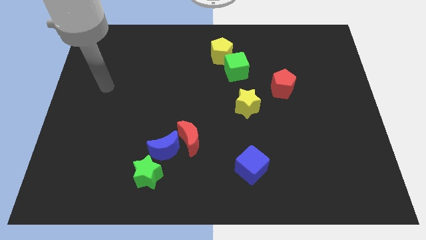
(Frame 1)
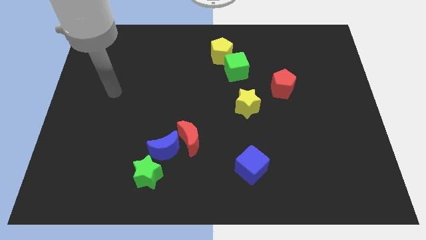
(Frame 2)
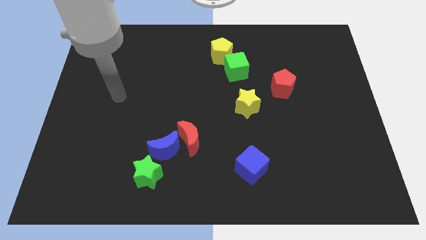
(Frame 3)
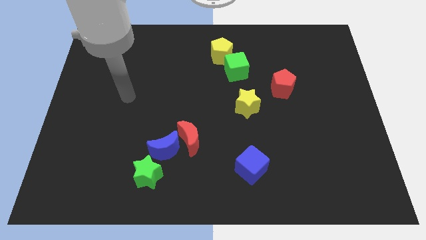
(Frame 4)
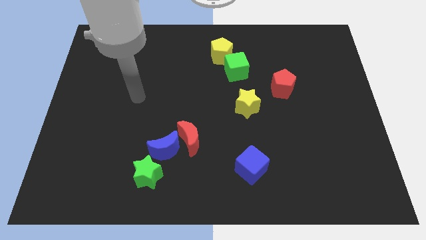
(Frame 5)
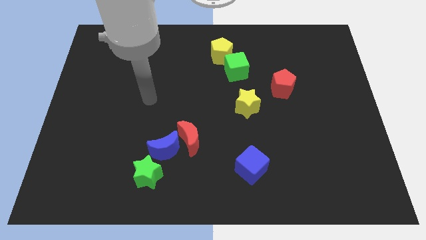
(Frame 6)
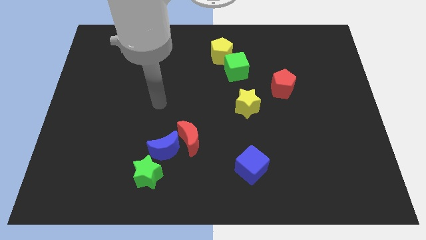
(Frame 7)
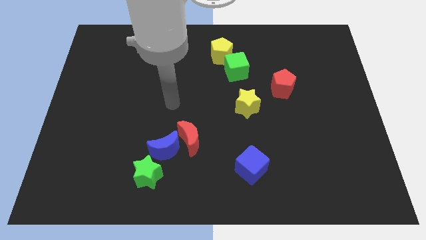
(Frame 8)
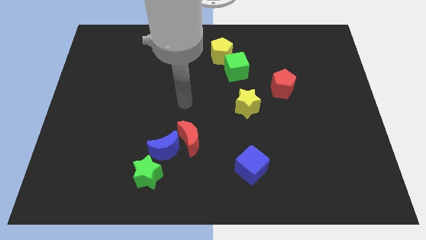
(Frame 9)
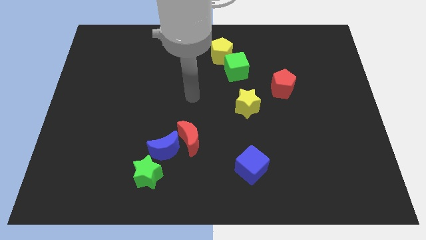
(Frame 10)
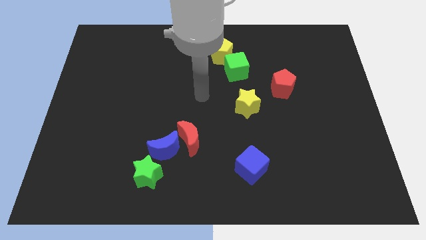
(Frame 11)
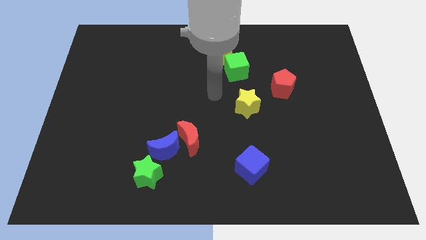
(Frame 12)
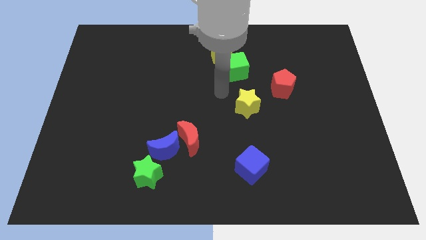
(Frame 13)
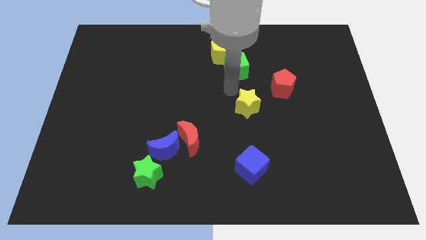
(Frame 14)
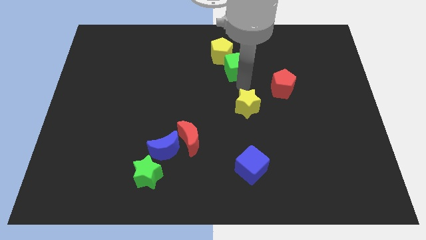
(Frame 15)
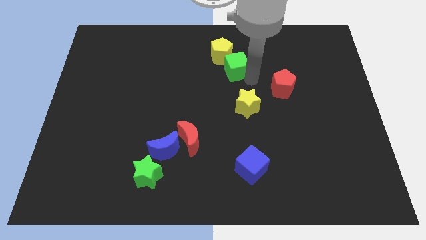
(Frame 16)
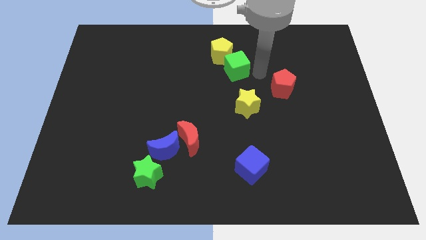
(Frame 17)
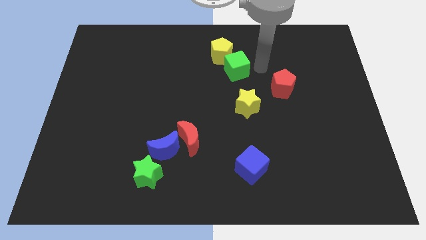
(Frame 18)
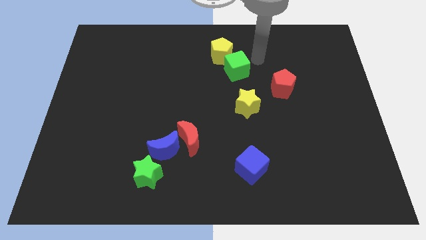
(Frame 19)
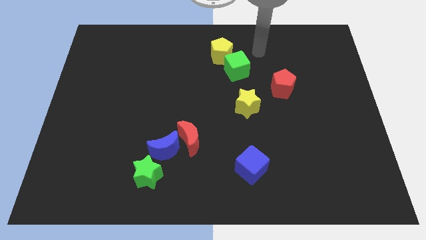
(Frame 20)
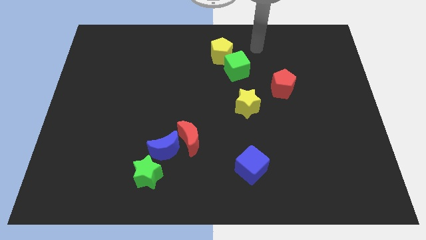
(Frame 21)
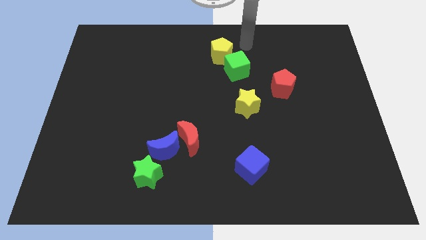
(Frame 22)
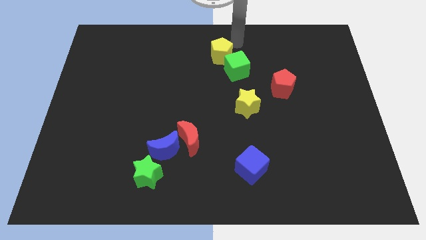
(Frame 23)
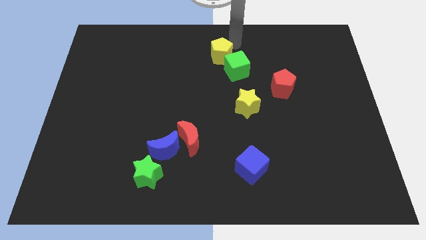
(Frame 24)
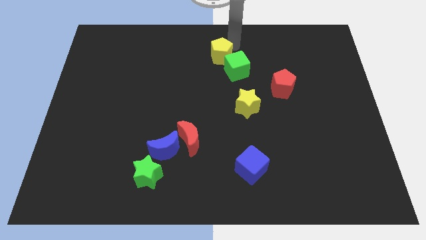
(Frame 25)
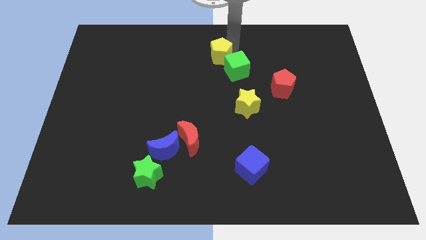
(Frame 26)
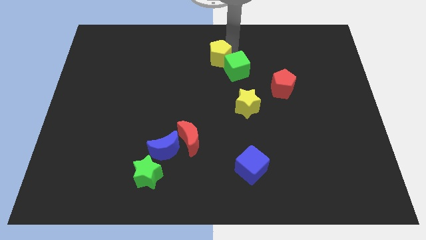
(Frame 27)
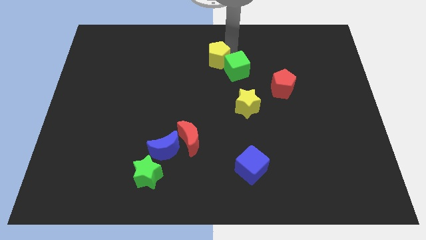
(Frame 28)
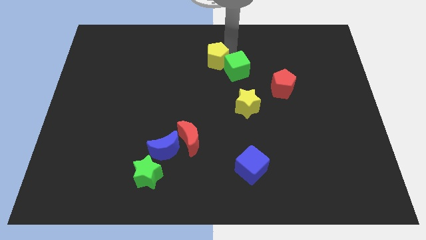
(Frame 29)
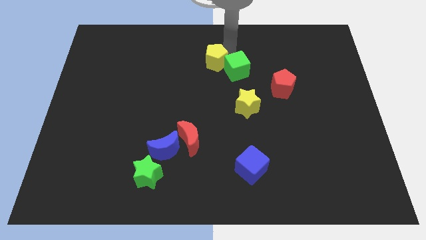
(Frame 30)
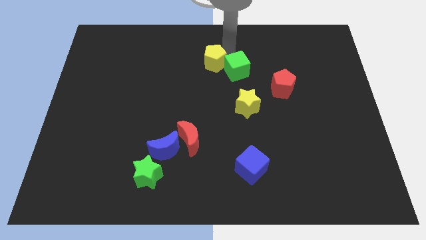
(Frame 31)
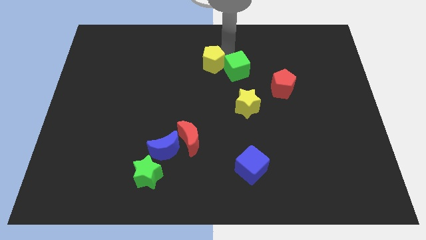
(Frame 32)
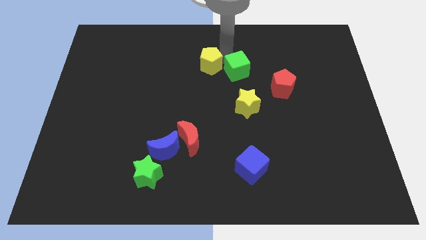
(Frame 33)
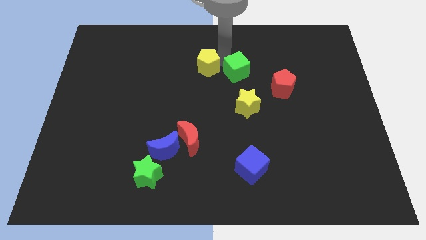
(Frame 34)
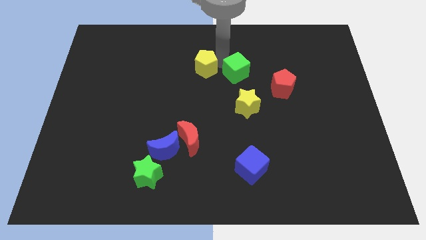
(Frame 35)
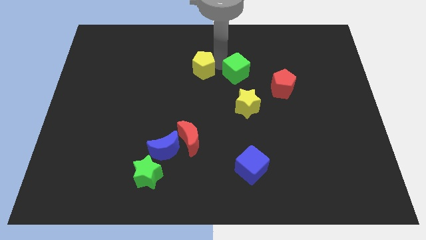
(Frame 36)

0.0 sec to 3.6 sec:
move the yellow pentagon down and left slightly

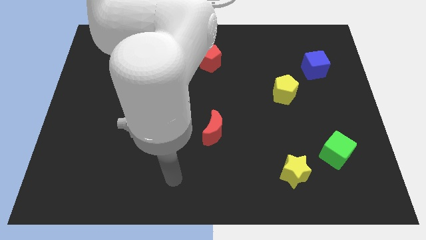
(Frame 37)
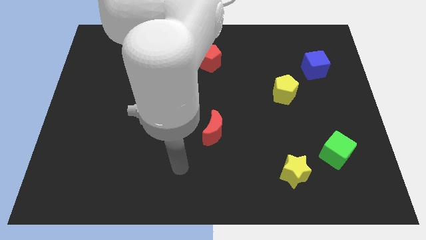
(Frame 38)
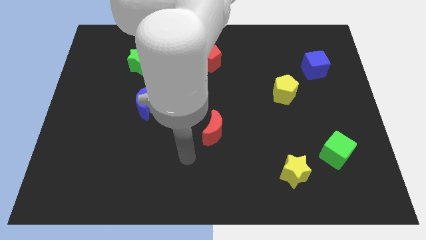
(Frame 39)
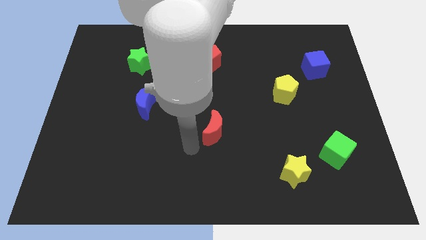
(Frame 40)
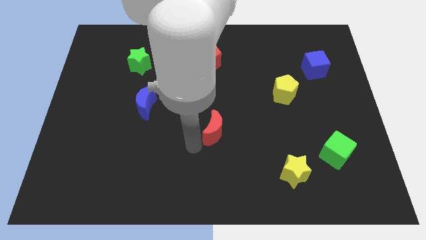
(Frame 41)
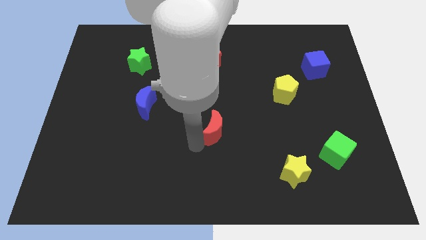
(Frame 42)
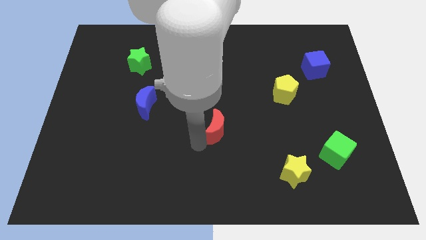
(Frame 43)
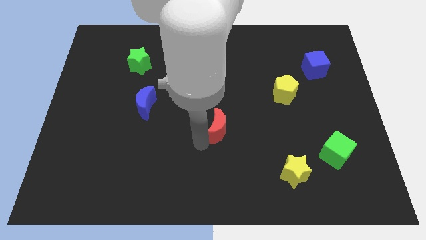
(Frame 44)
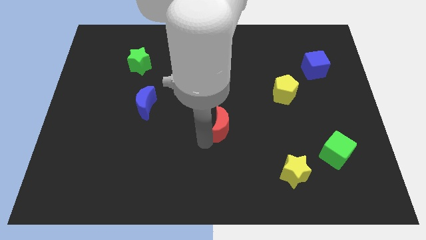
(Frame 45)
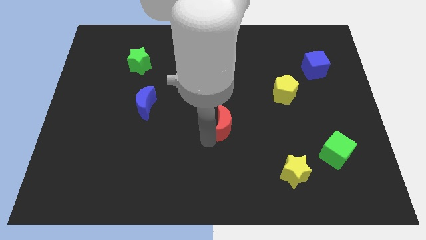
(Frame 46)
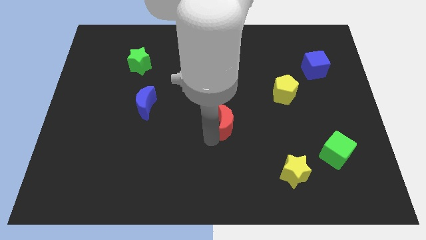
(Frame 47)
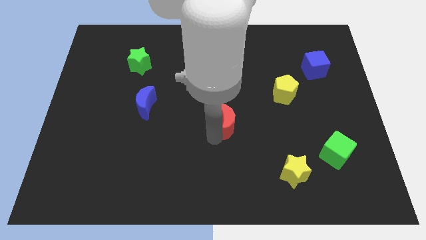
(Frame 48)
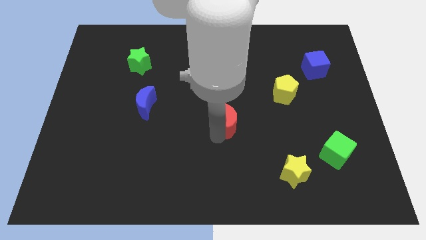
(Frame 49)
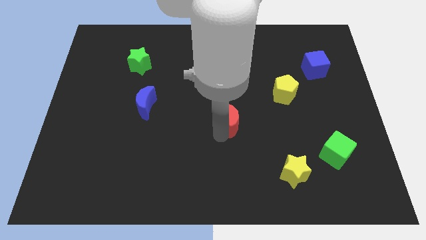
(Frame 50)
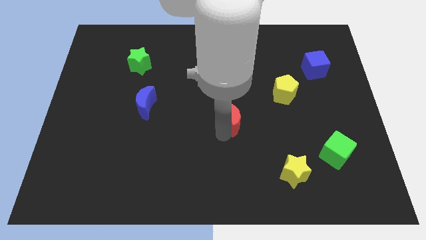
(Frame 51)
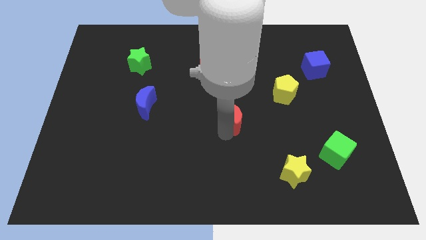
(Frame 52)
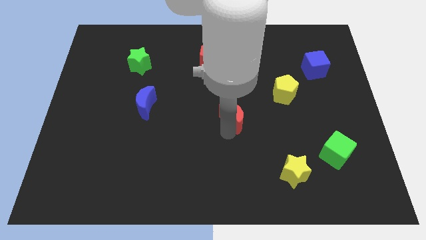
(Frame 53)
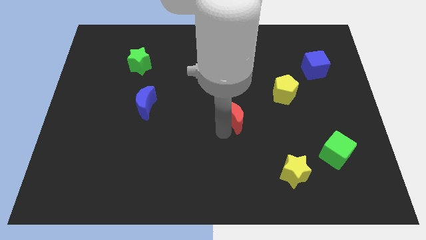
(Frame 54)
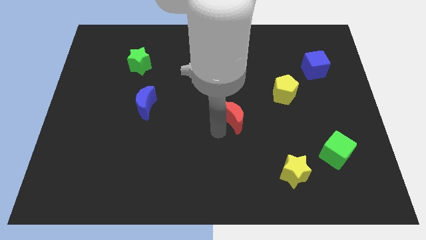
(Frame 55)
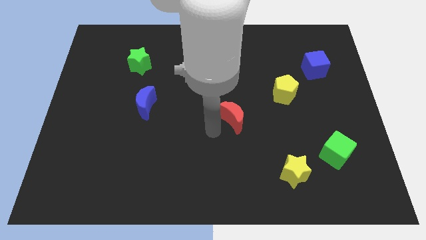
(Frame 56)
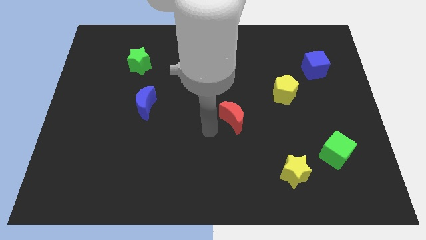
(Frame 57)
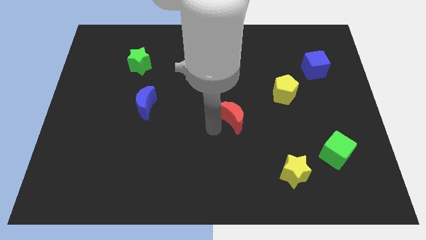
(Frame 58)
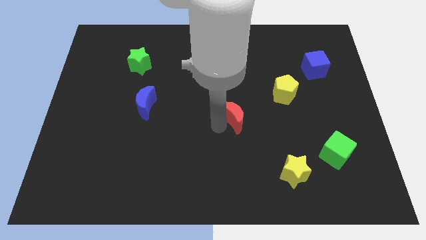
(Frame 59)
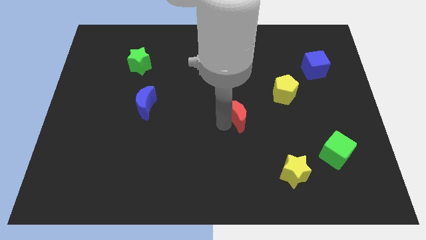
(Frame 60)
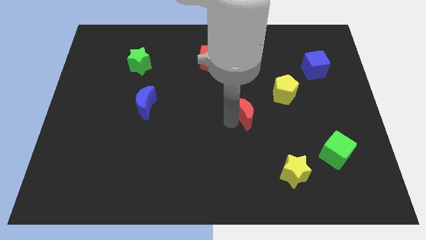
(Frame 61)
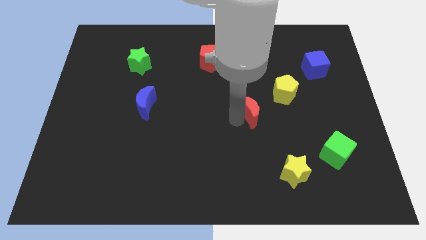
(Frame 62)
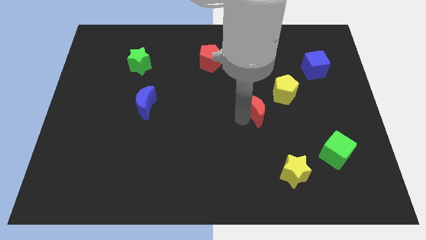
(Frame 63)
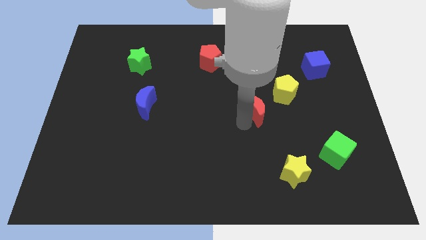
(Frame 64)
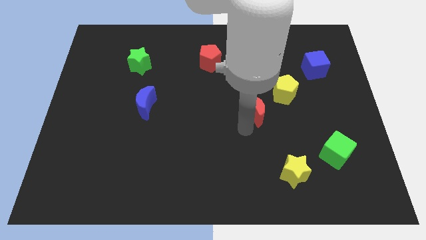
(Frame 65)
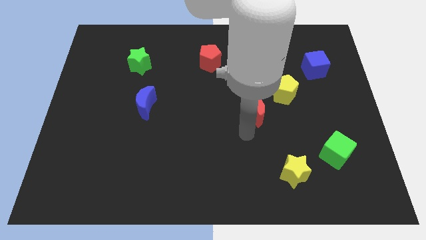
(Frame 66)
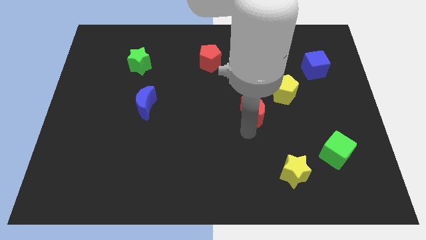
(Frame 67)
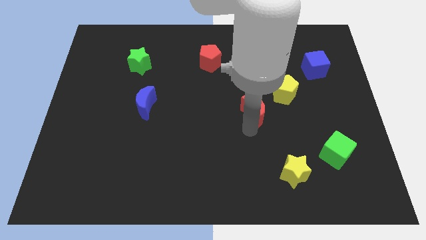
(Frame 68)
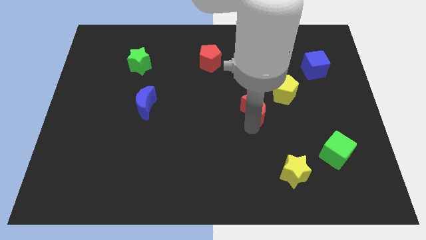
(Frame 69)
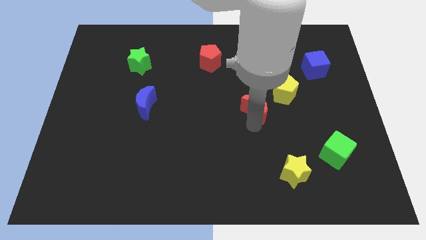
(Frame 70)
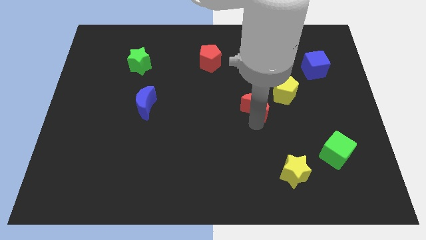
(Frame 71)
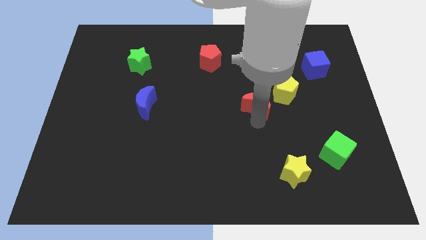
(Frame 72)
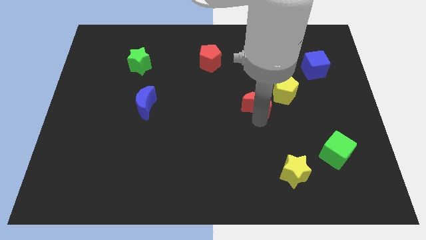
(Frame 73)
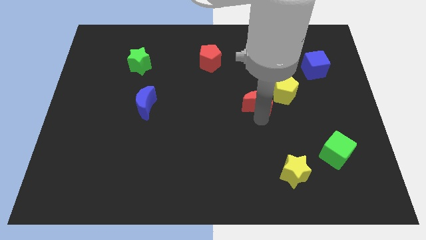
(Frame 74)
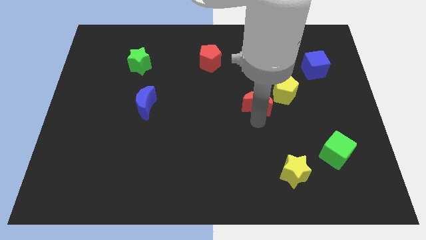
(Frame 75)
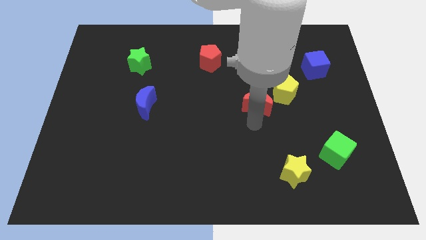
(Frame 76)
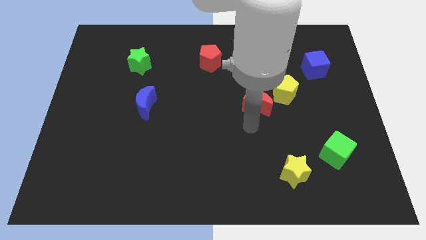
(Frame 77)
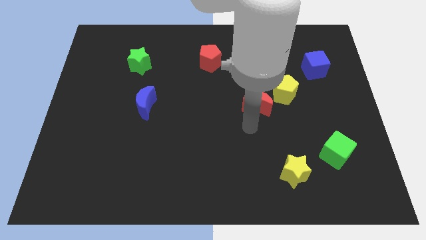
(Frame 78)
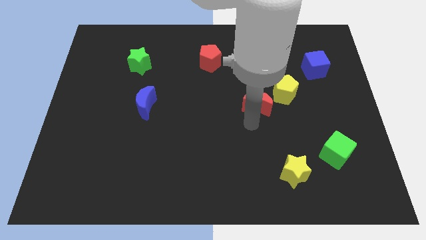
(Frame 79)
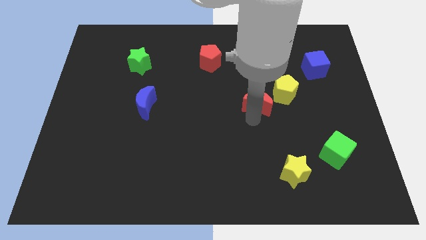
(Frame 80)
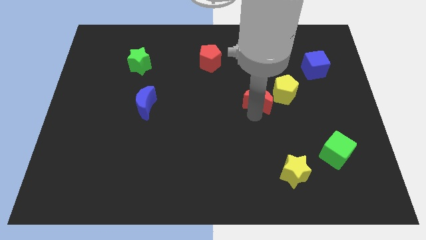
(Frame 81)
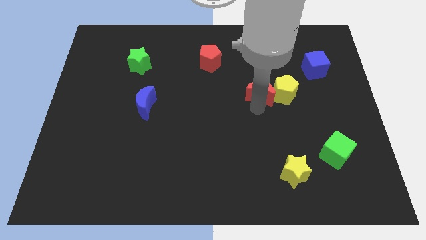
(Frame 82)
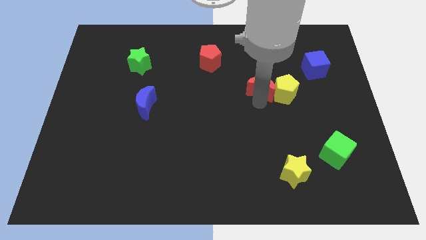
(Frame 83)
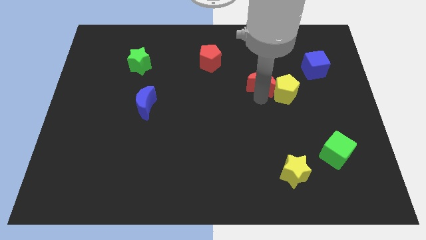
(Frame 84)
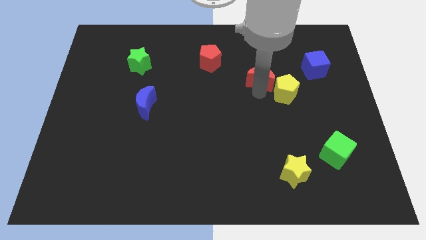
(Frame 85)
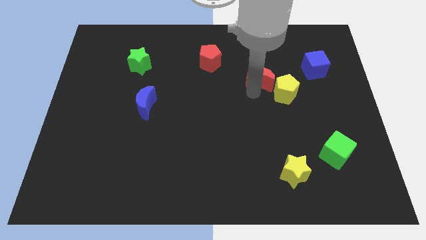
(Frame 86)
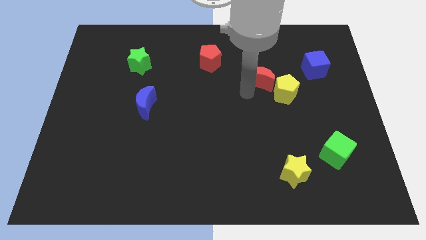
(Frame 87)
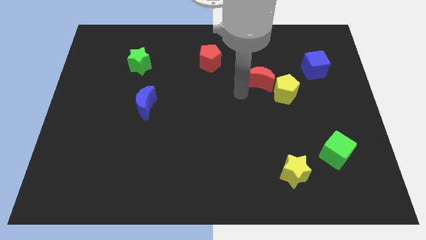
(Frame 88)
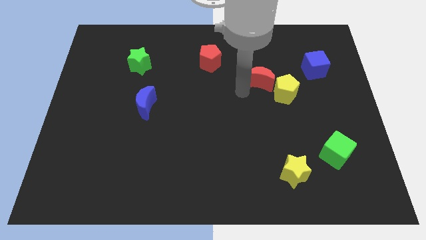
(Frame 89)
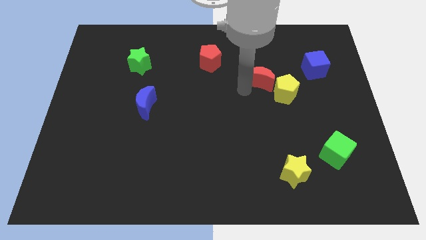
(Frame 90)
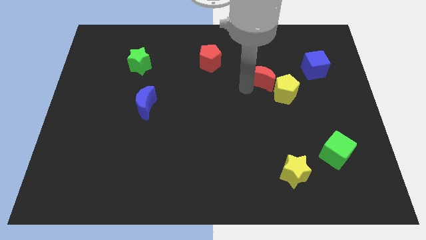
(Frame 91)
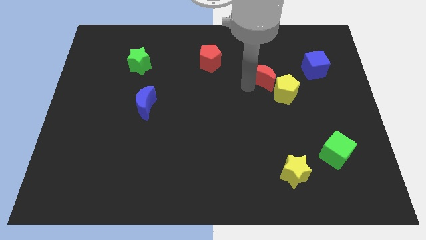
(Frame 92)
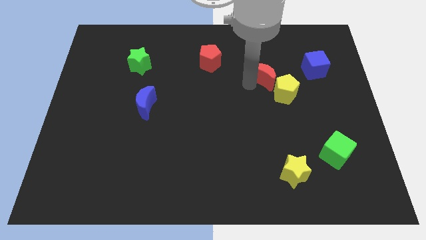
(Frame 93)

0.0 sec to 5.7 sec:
move the red moon up and to the right
